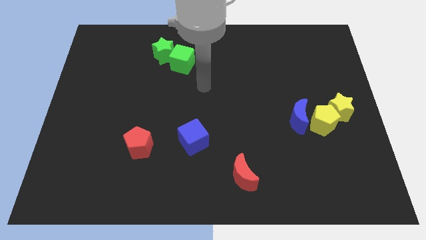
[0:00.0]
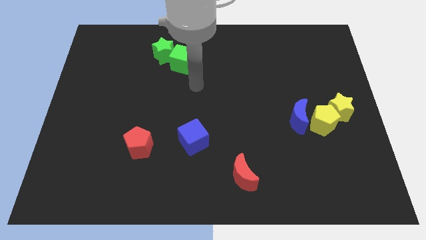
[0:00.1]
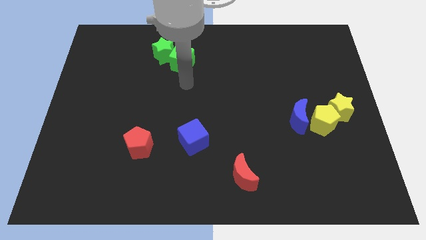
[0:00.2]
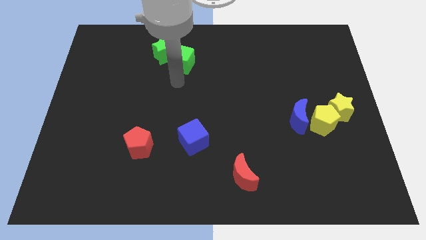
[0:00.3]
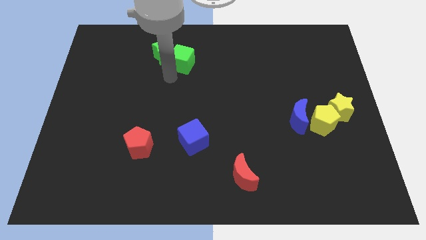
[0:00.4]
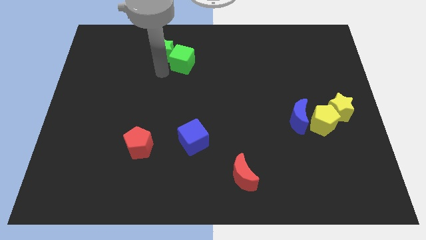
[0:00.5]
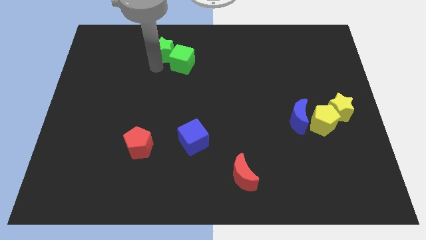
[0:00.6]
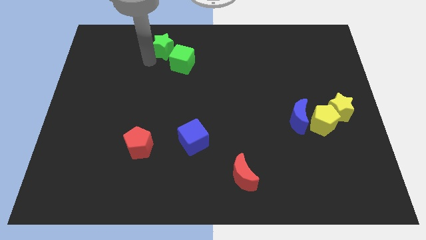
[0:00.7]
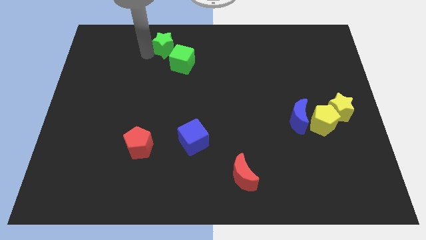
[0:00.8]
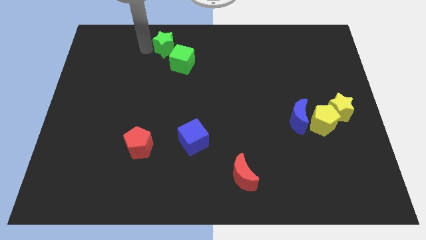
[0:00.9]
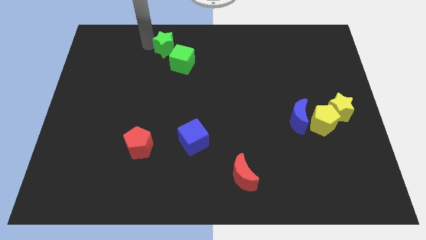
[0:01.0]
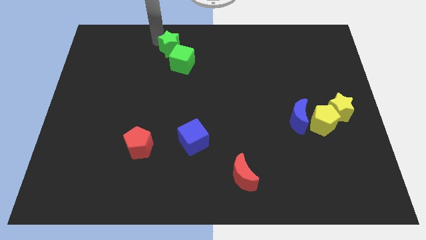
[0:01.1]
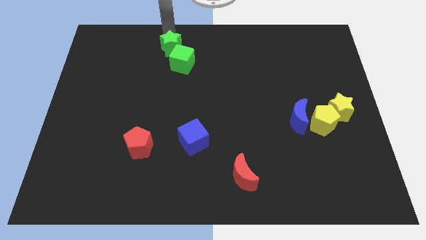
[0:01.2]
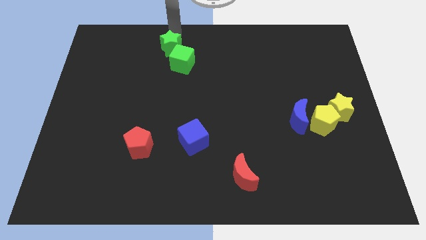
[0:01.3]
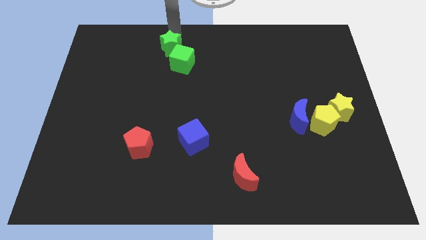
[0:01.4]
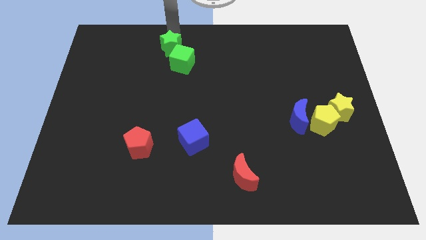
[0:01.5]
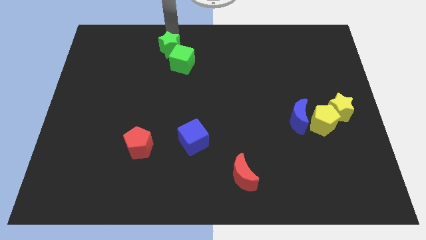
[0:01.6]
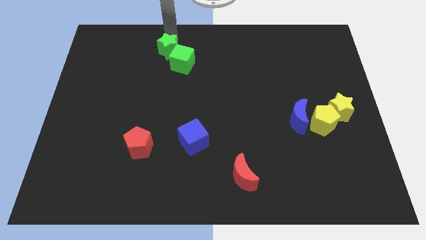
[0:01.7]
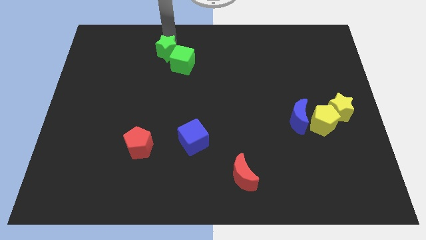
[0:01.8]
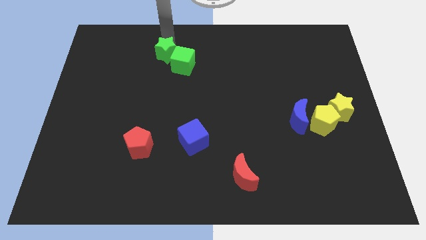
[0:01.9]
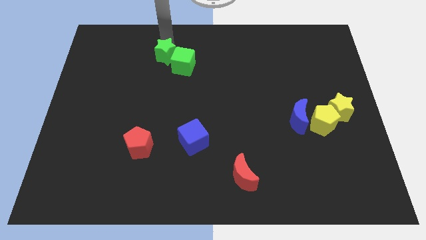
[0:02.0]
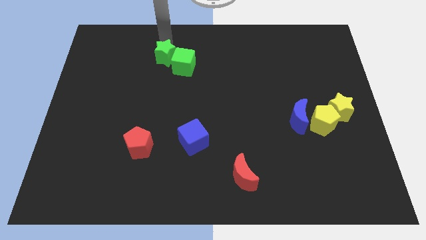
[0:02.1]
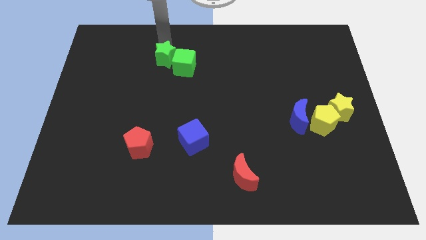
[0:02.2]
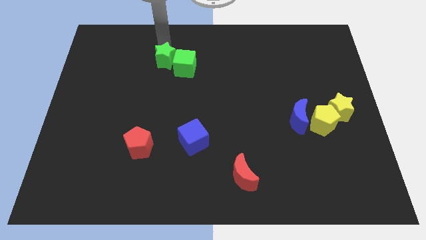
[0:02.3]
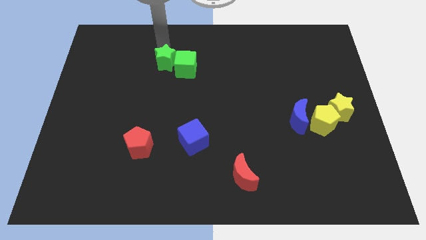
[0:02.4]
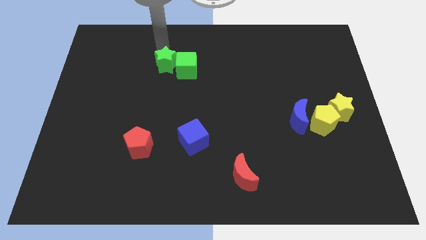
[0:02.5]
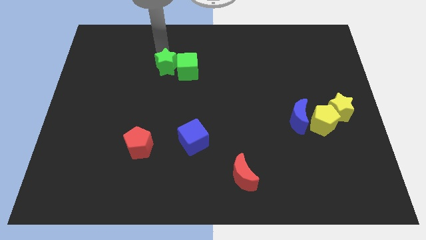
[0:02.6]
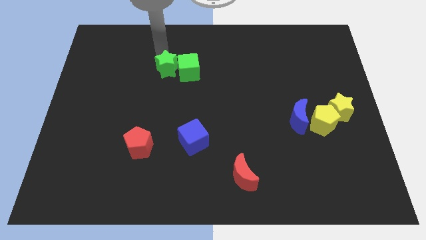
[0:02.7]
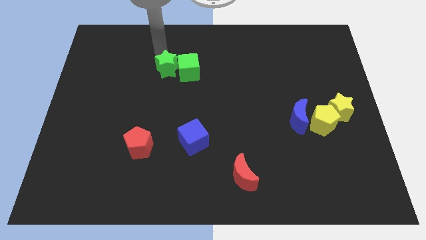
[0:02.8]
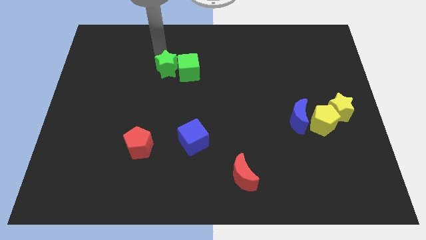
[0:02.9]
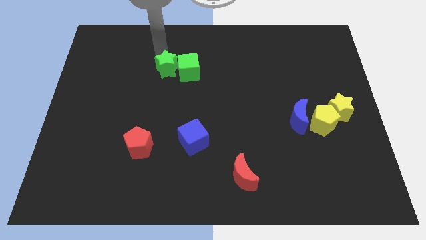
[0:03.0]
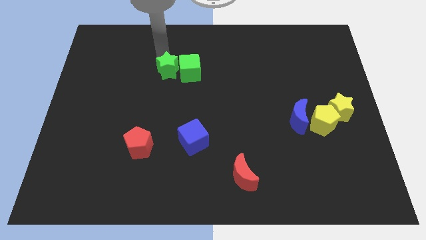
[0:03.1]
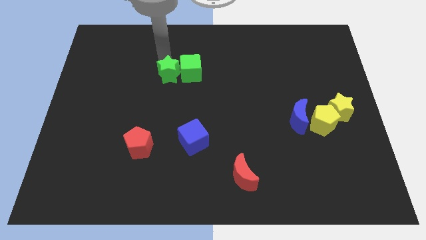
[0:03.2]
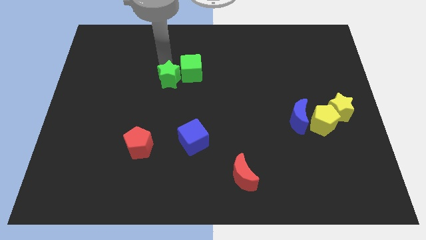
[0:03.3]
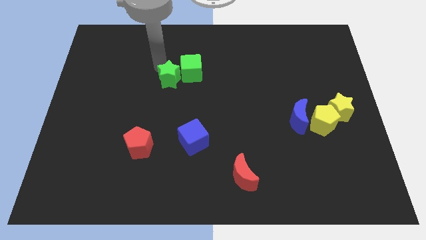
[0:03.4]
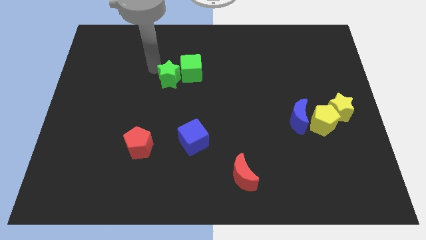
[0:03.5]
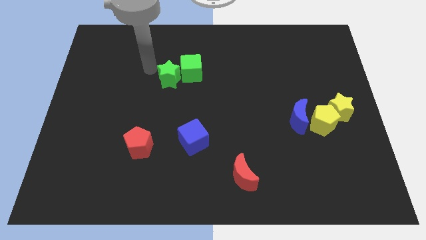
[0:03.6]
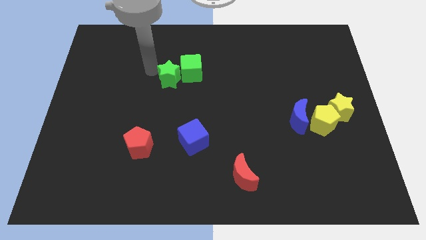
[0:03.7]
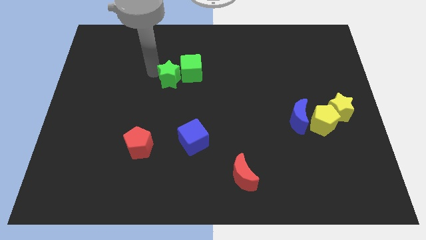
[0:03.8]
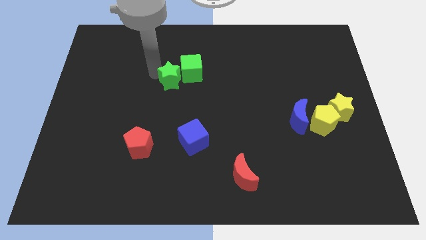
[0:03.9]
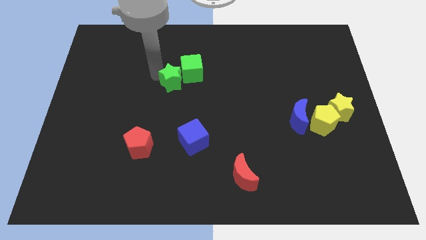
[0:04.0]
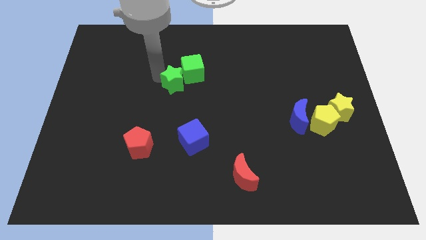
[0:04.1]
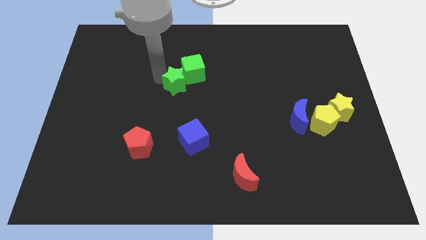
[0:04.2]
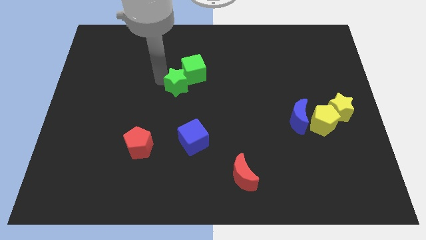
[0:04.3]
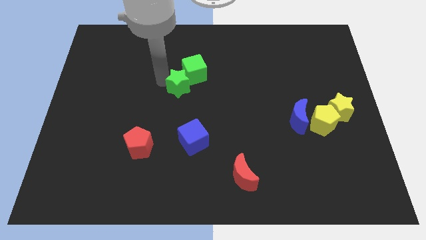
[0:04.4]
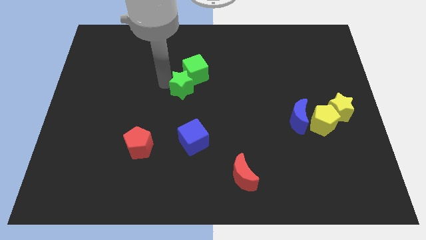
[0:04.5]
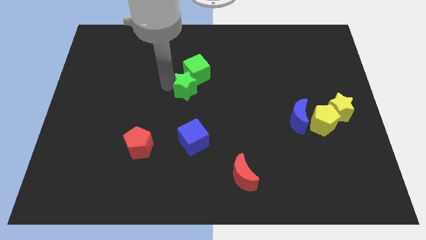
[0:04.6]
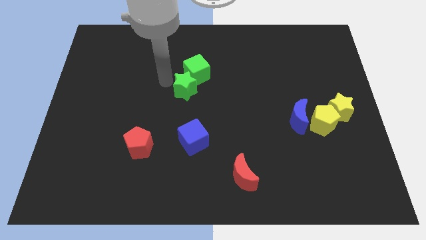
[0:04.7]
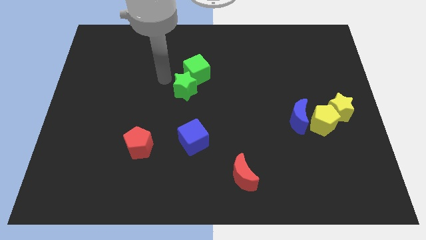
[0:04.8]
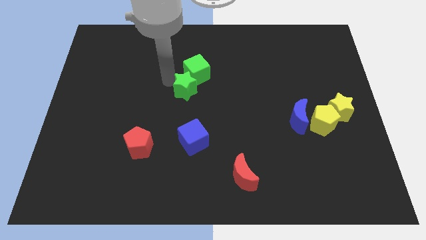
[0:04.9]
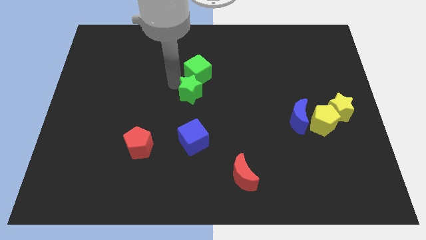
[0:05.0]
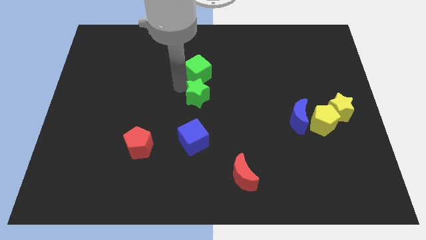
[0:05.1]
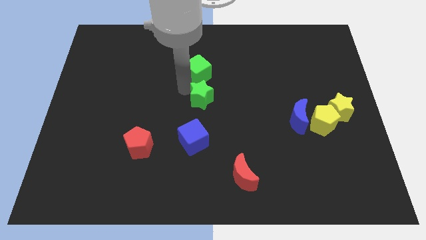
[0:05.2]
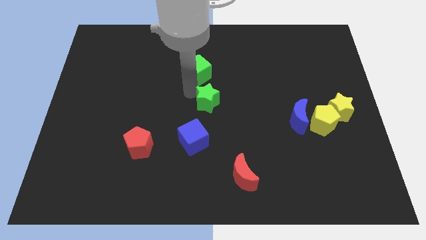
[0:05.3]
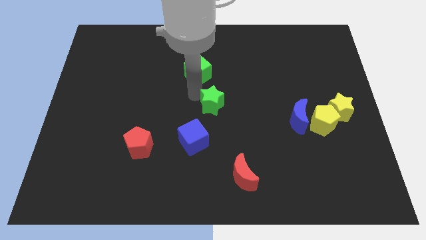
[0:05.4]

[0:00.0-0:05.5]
push the green star downwards and right diagonally

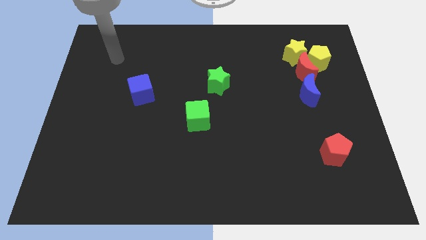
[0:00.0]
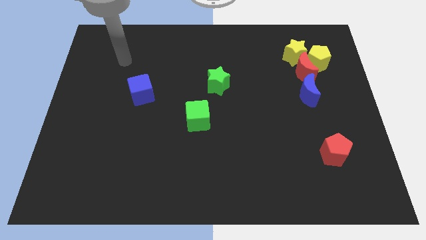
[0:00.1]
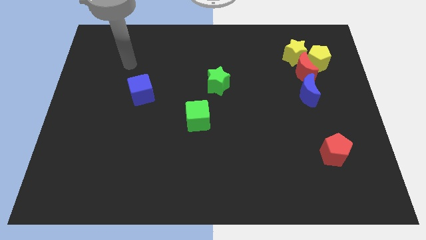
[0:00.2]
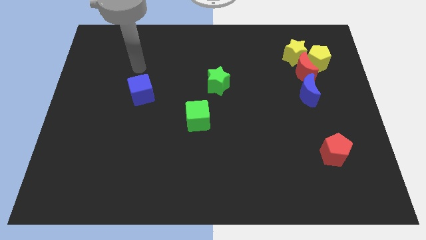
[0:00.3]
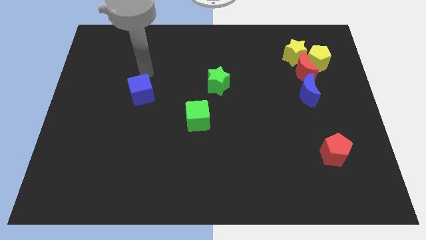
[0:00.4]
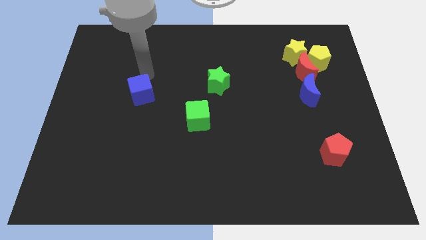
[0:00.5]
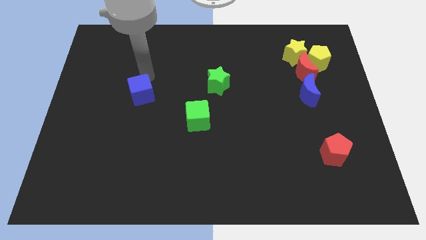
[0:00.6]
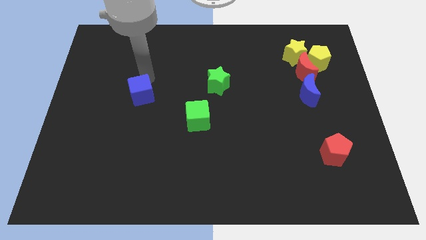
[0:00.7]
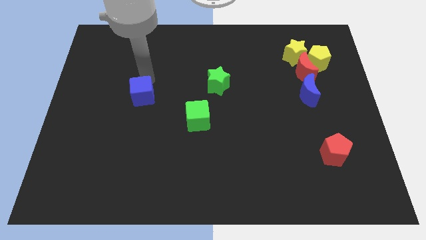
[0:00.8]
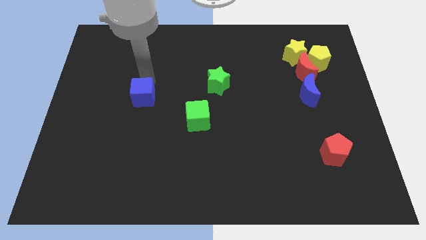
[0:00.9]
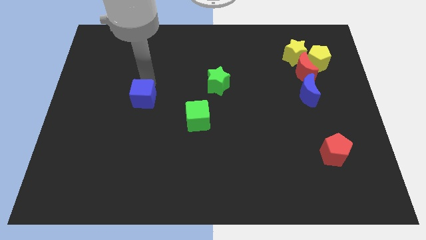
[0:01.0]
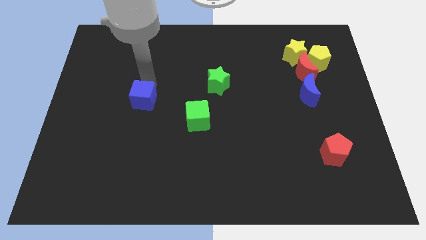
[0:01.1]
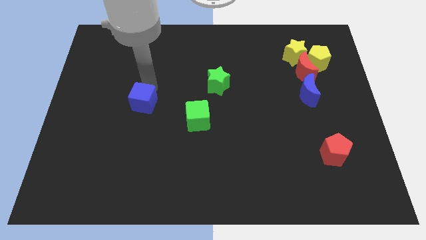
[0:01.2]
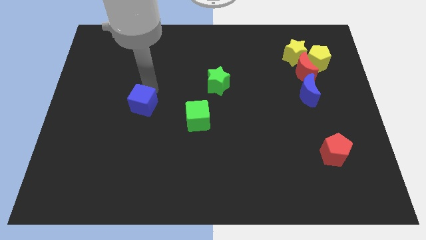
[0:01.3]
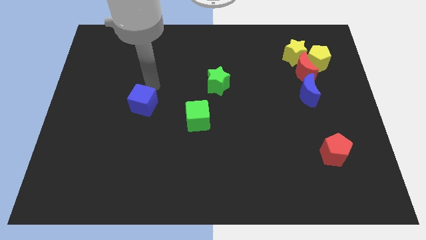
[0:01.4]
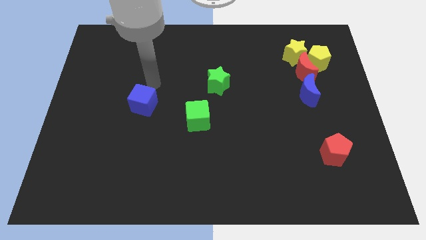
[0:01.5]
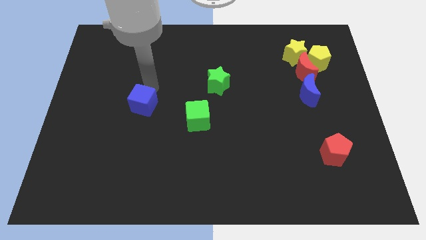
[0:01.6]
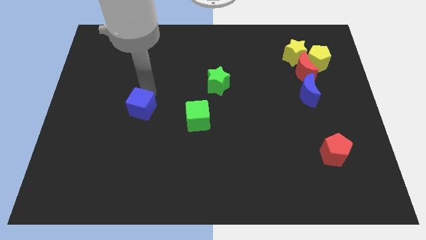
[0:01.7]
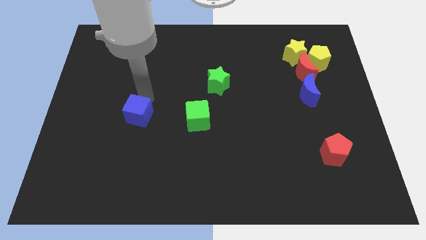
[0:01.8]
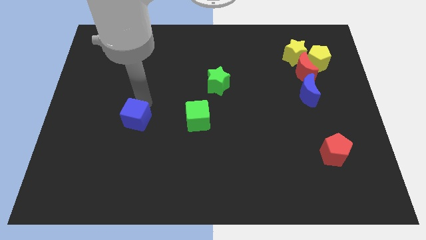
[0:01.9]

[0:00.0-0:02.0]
push the blue cube down a bit

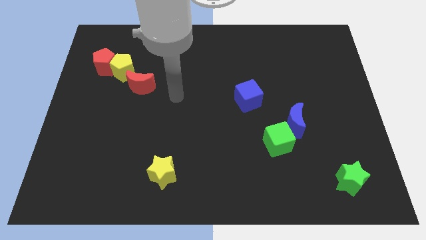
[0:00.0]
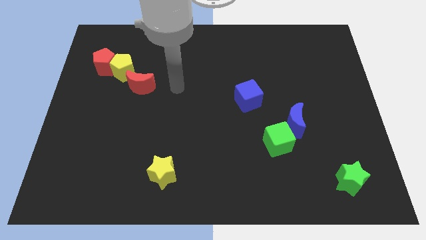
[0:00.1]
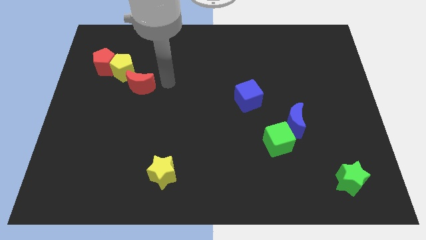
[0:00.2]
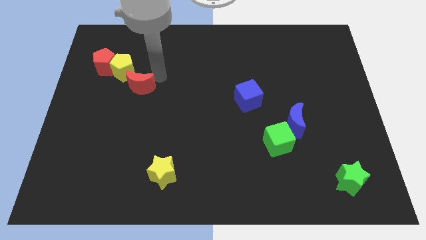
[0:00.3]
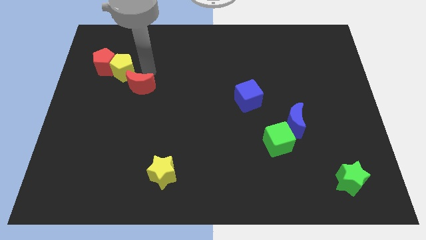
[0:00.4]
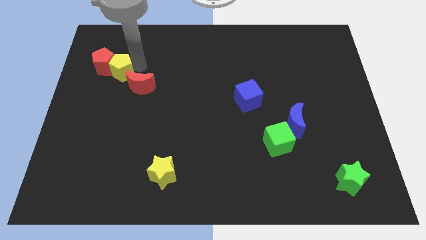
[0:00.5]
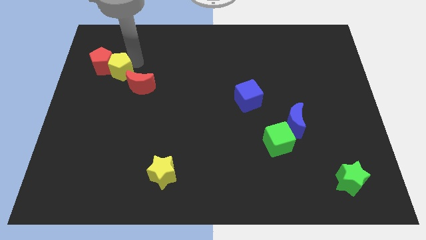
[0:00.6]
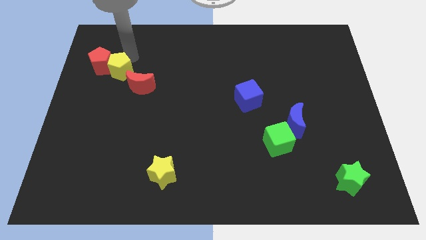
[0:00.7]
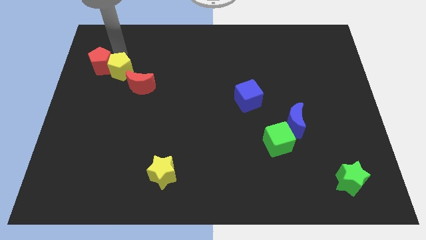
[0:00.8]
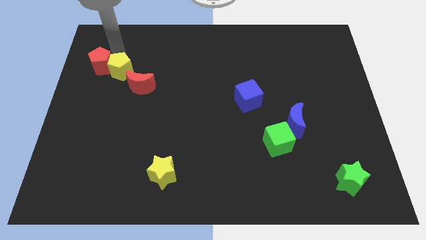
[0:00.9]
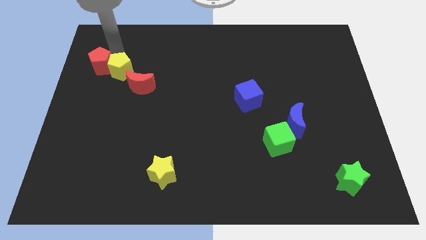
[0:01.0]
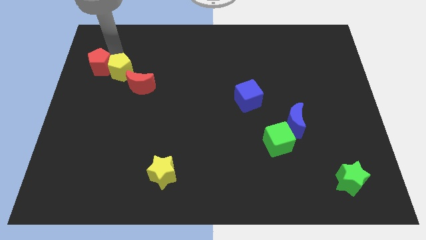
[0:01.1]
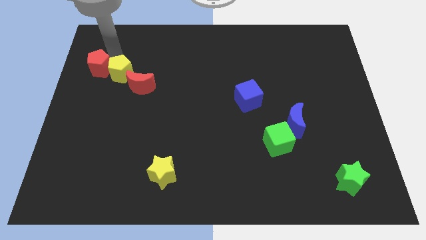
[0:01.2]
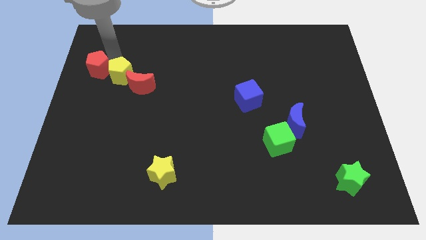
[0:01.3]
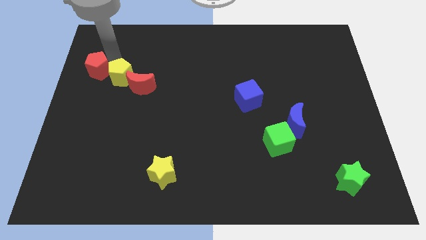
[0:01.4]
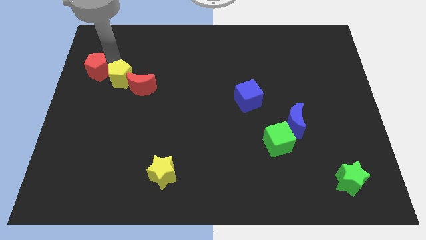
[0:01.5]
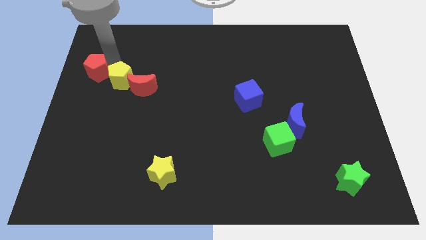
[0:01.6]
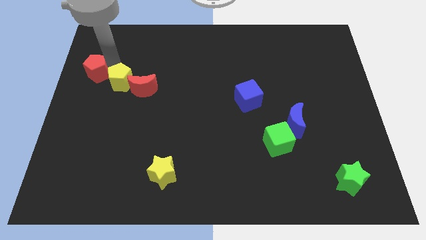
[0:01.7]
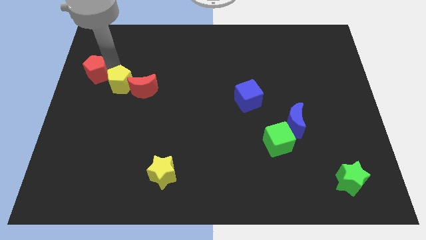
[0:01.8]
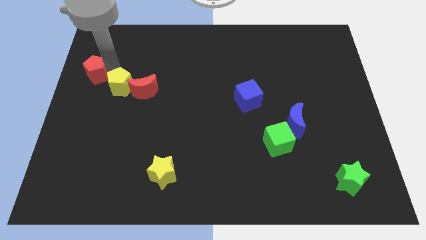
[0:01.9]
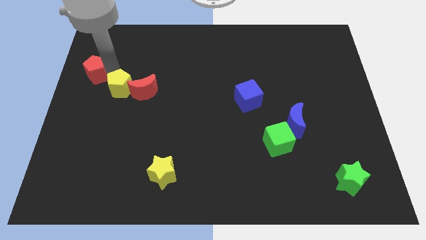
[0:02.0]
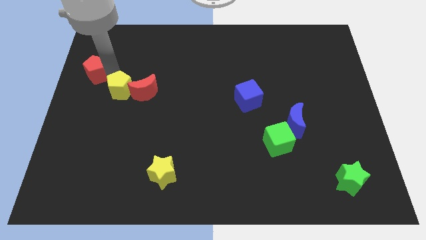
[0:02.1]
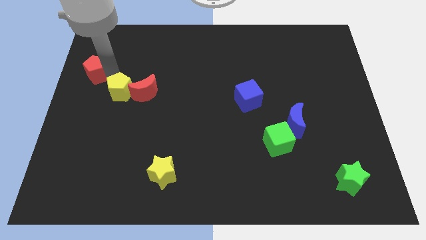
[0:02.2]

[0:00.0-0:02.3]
slide the yellow pentagon a little bit down
